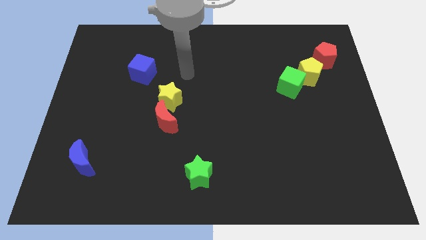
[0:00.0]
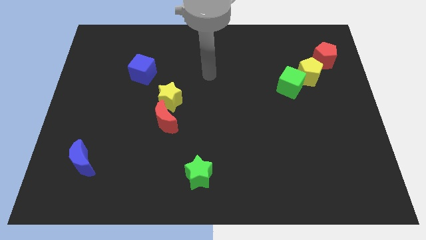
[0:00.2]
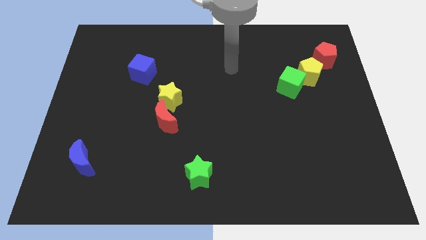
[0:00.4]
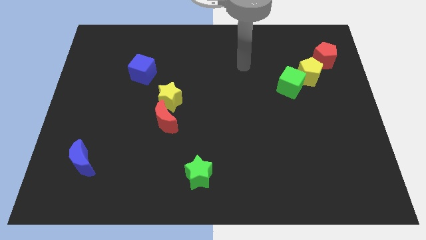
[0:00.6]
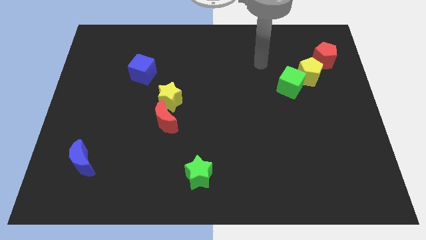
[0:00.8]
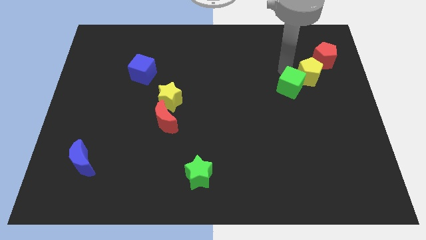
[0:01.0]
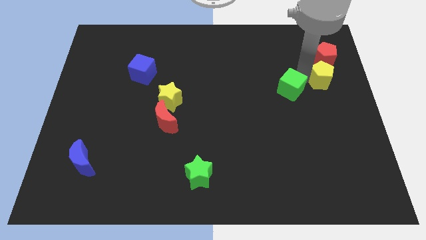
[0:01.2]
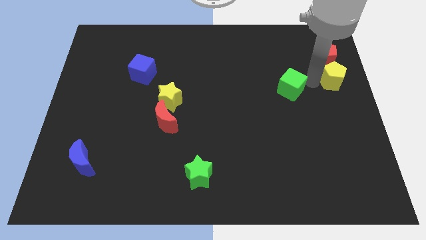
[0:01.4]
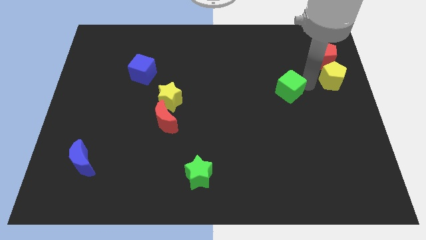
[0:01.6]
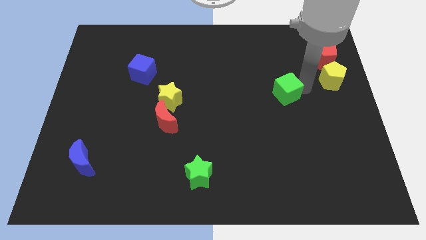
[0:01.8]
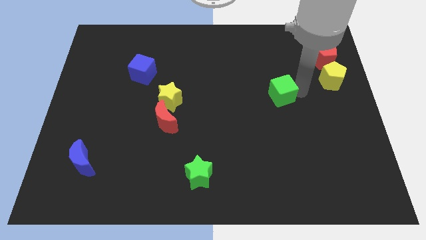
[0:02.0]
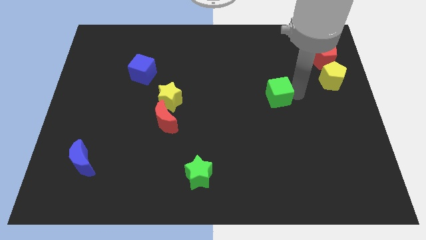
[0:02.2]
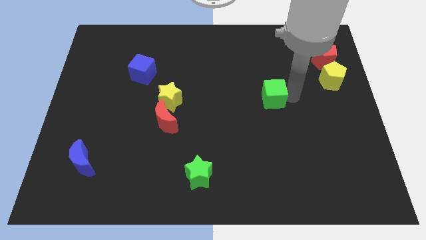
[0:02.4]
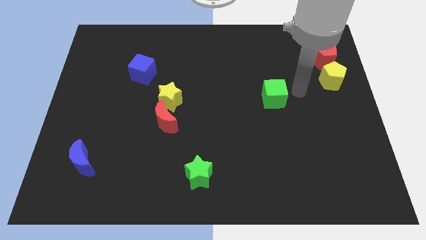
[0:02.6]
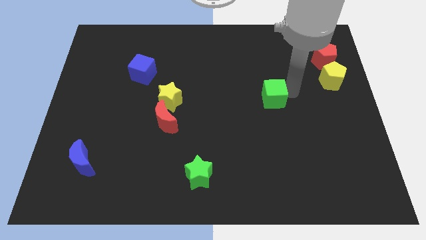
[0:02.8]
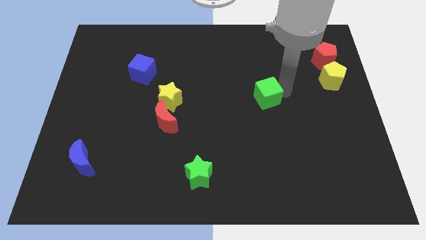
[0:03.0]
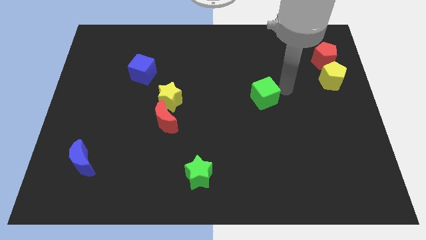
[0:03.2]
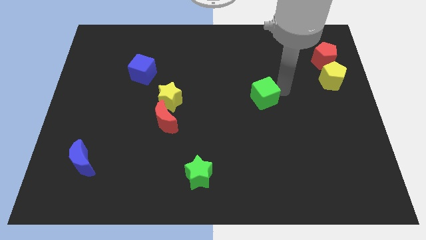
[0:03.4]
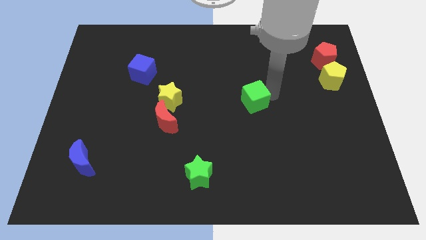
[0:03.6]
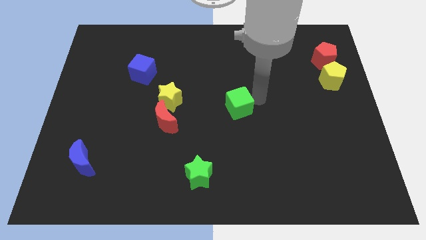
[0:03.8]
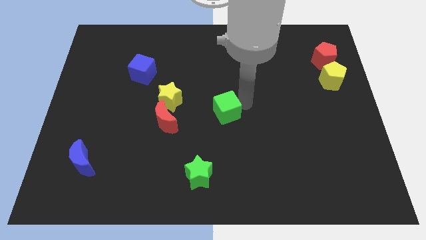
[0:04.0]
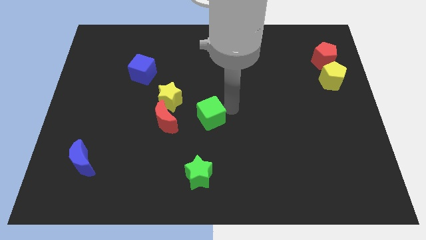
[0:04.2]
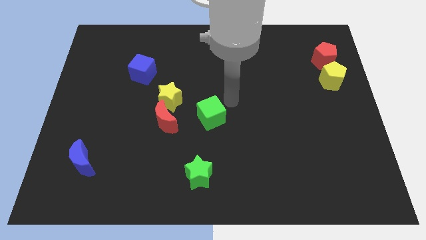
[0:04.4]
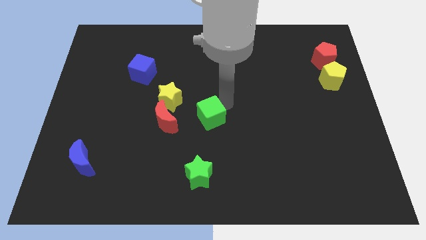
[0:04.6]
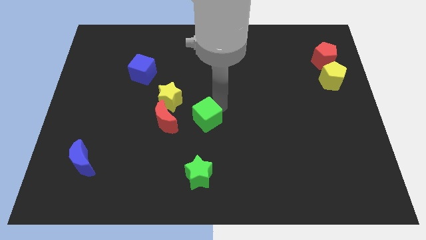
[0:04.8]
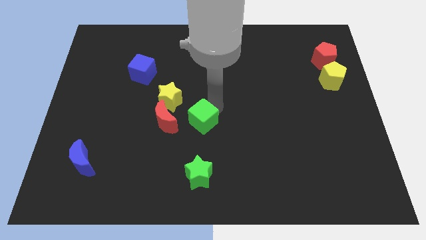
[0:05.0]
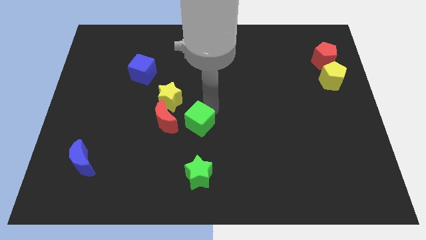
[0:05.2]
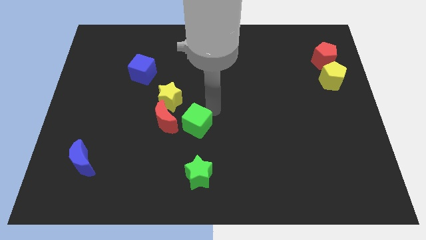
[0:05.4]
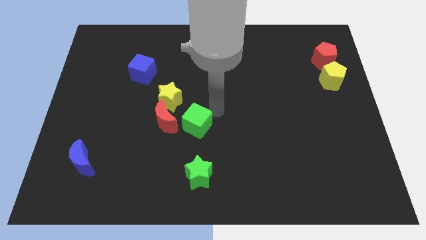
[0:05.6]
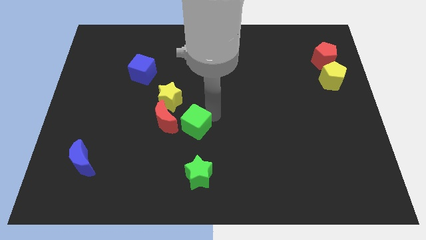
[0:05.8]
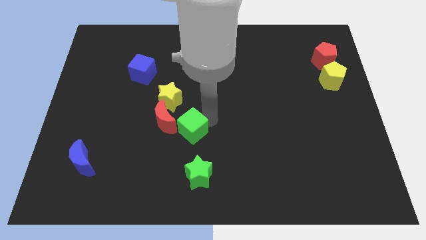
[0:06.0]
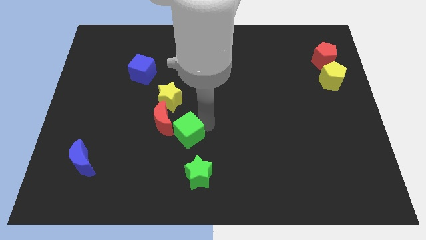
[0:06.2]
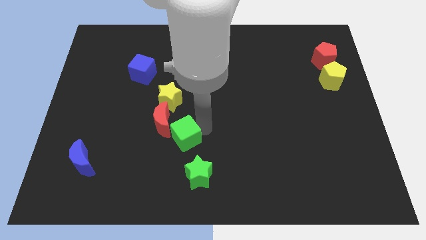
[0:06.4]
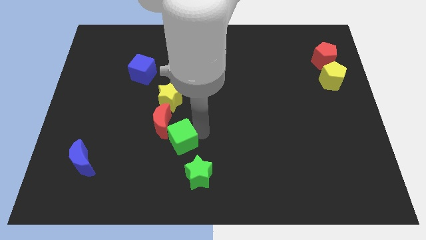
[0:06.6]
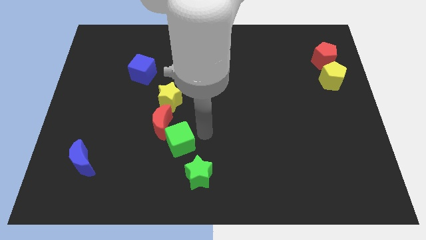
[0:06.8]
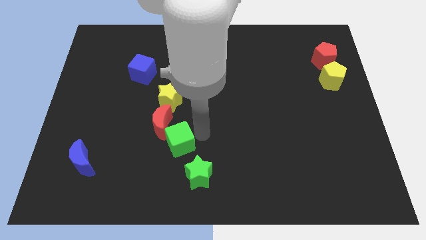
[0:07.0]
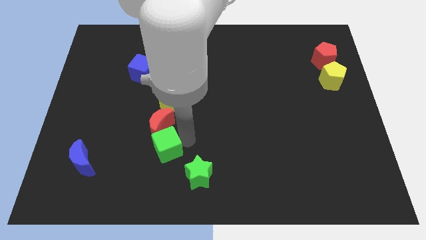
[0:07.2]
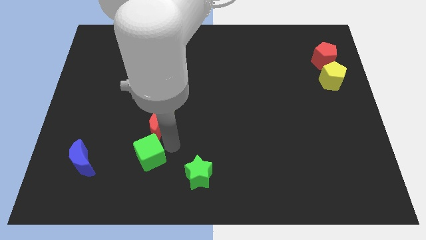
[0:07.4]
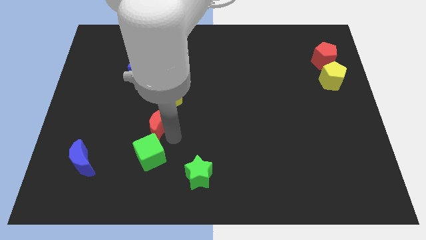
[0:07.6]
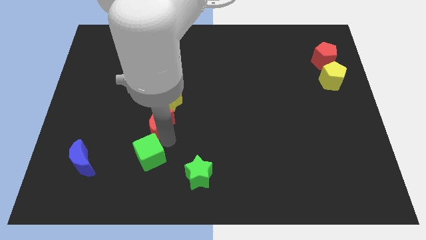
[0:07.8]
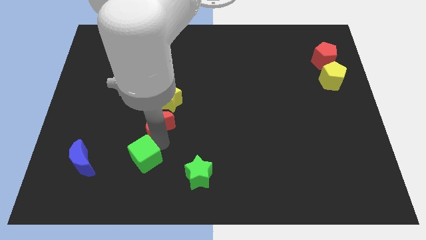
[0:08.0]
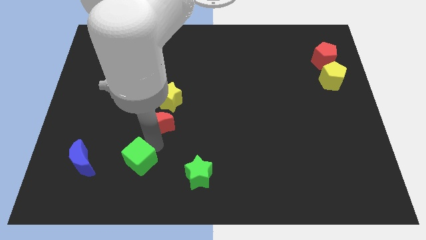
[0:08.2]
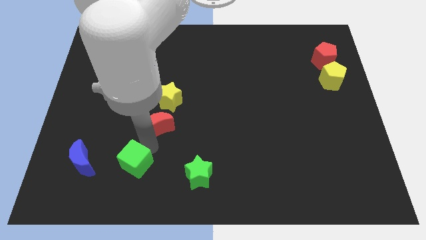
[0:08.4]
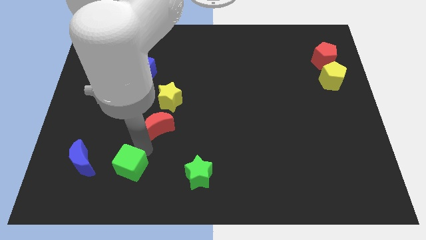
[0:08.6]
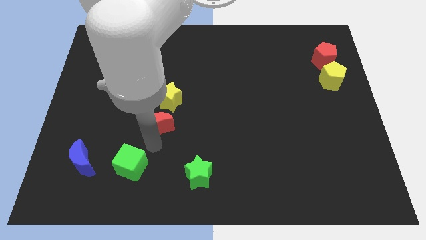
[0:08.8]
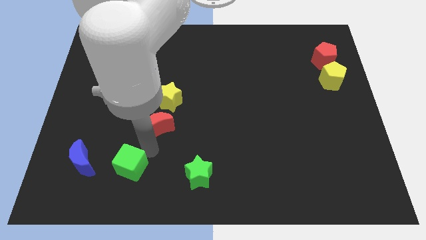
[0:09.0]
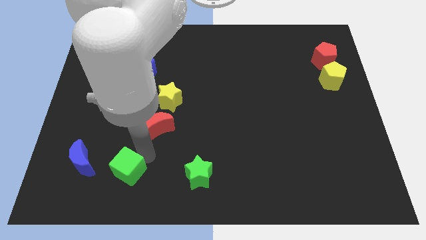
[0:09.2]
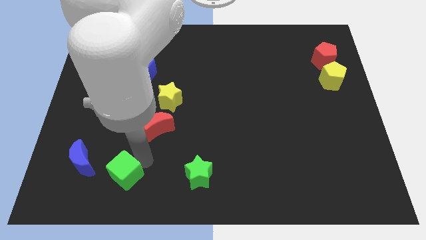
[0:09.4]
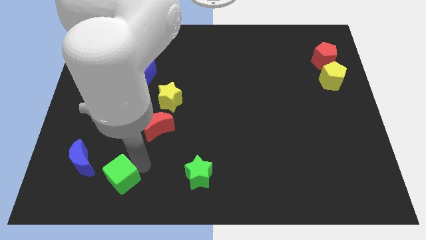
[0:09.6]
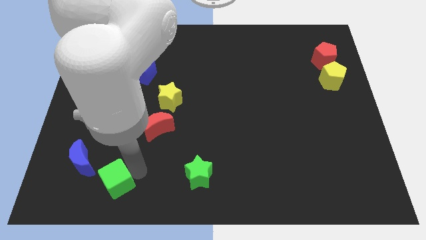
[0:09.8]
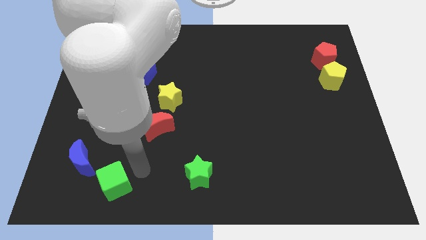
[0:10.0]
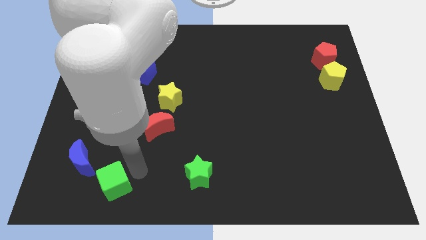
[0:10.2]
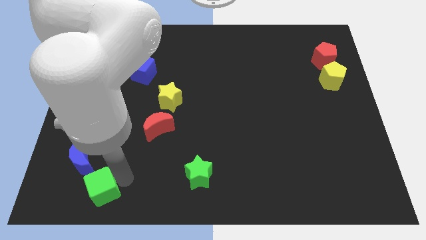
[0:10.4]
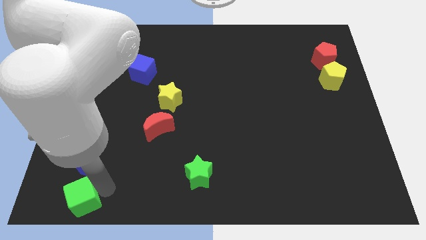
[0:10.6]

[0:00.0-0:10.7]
push the green cube to the bottom left of the board

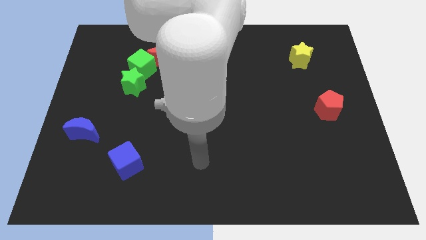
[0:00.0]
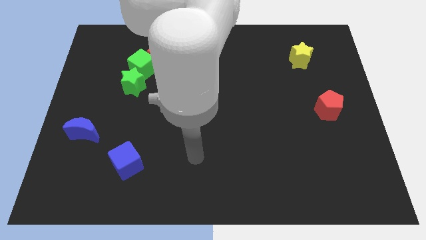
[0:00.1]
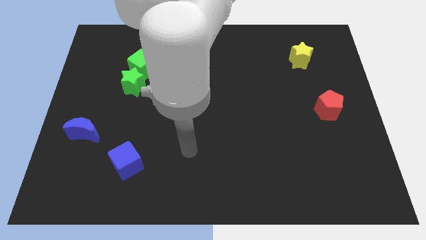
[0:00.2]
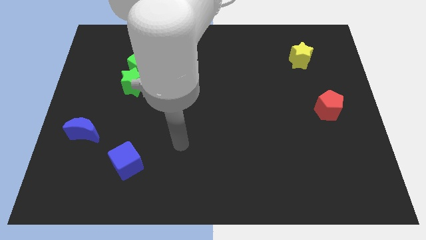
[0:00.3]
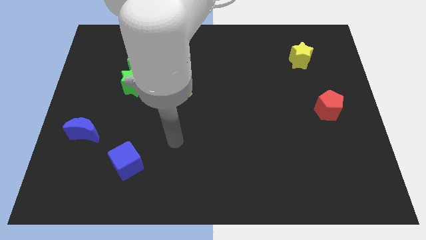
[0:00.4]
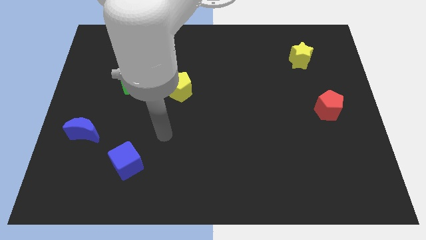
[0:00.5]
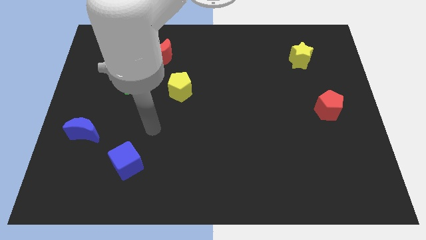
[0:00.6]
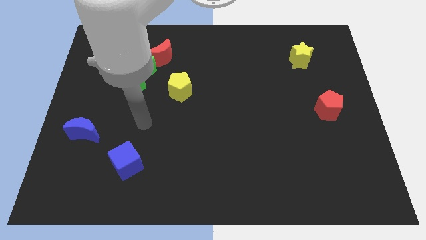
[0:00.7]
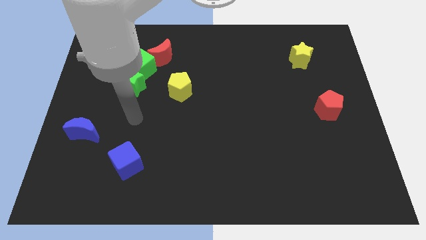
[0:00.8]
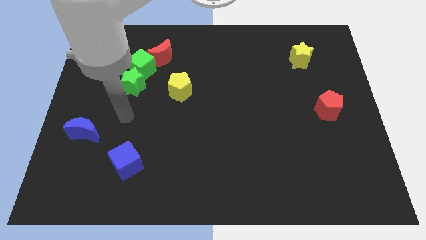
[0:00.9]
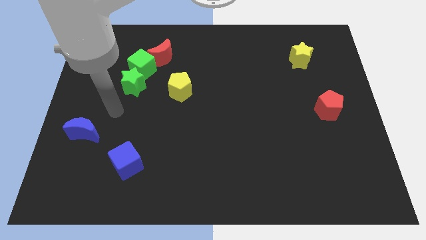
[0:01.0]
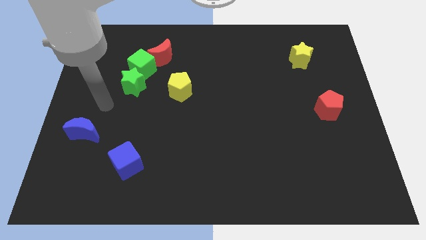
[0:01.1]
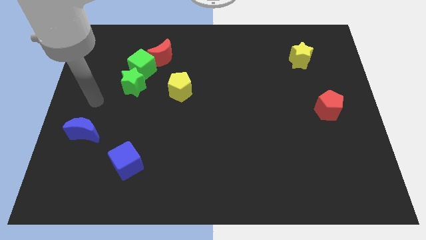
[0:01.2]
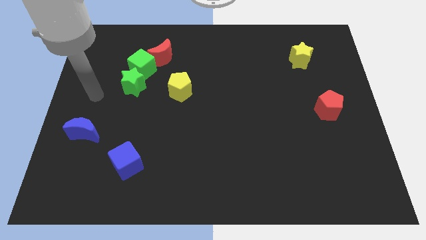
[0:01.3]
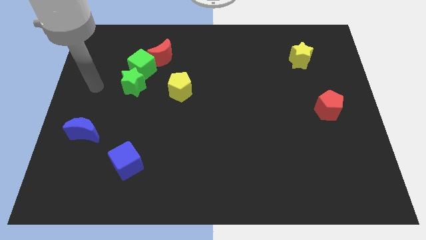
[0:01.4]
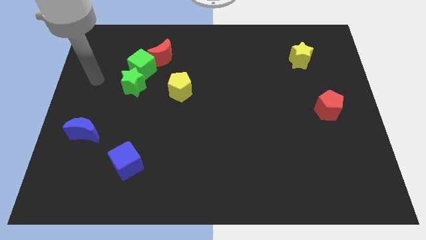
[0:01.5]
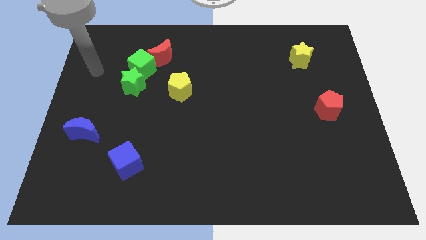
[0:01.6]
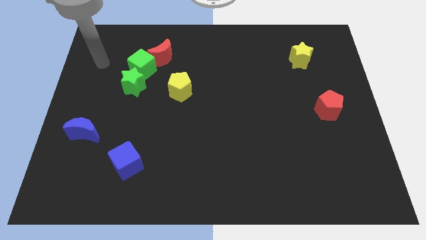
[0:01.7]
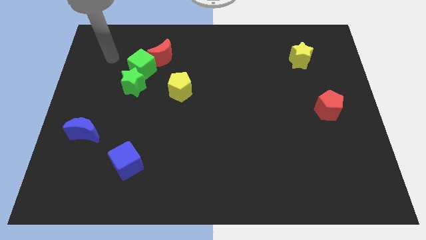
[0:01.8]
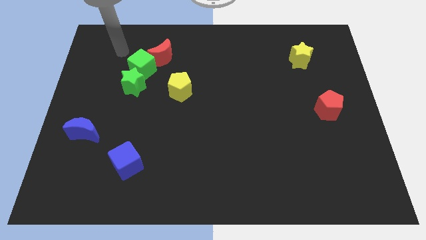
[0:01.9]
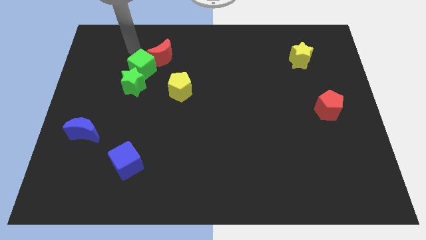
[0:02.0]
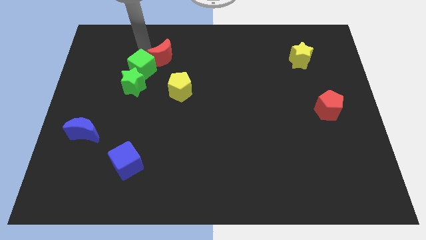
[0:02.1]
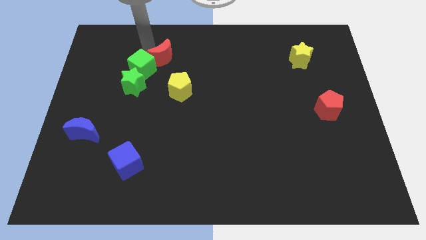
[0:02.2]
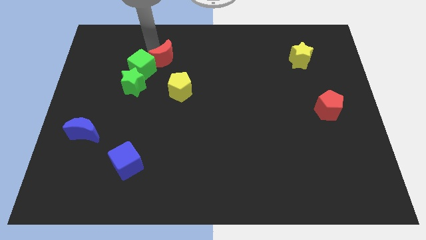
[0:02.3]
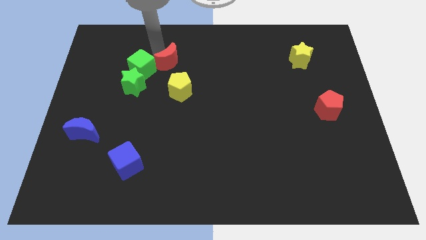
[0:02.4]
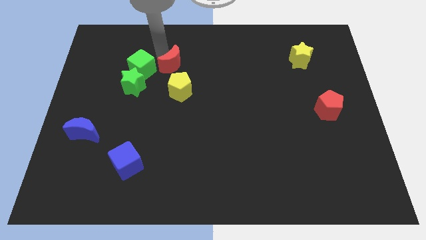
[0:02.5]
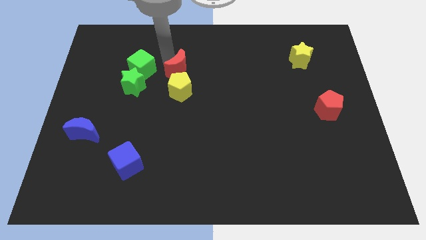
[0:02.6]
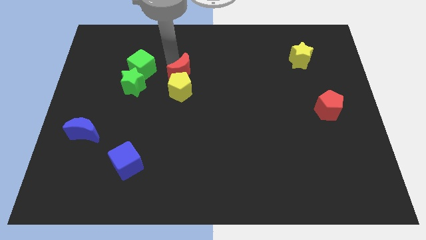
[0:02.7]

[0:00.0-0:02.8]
push the red moon to the middle
